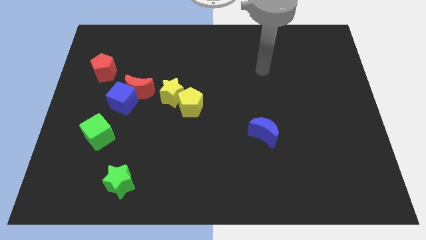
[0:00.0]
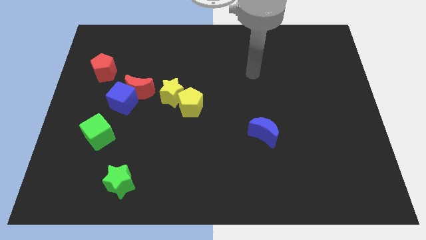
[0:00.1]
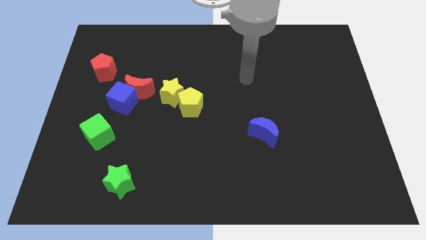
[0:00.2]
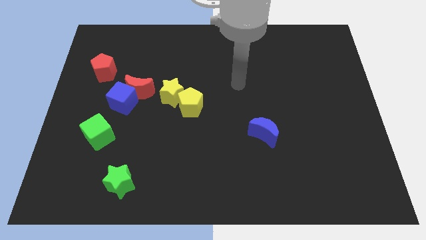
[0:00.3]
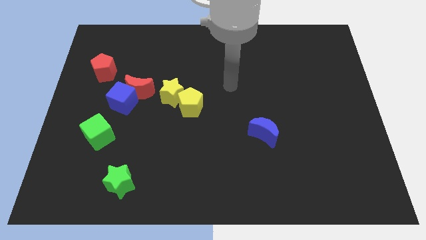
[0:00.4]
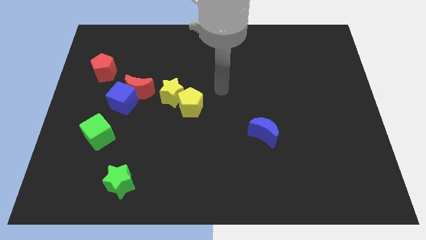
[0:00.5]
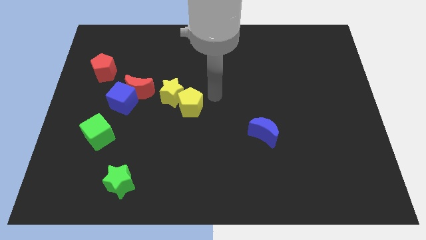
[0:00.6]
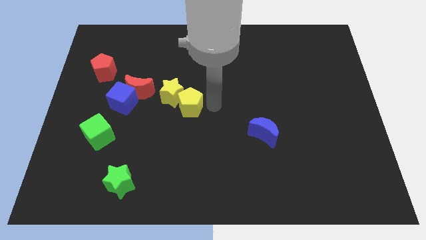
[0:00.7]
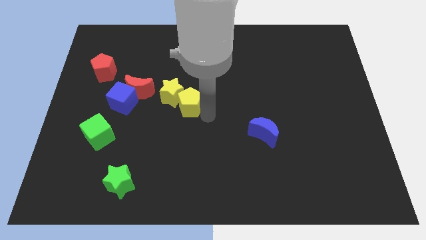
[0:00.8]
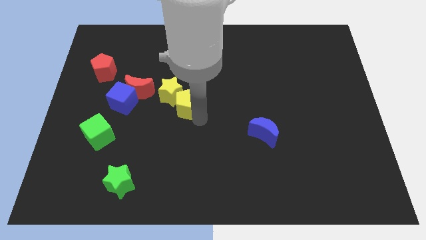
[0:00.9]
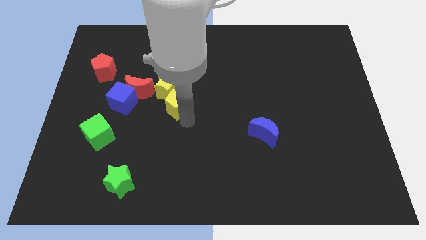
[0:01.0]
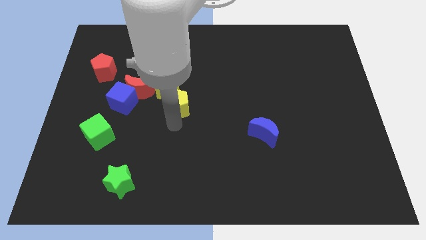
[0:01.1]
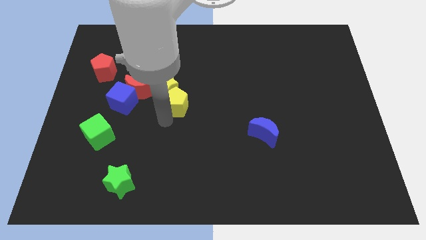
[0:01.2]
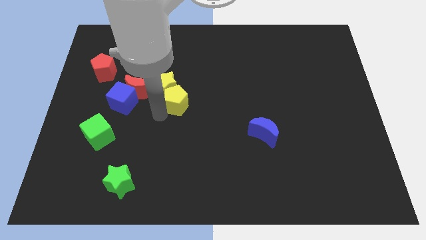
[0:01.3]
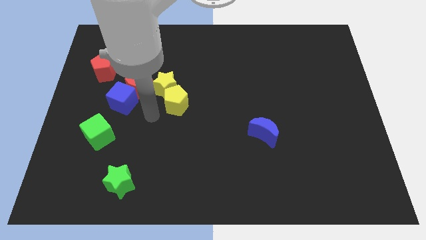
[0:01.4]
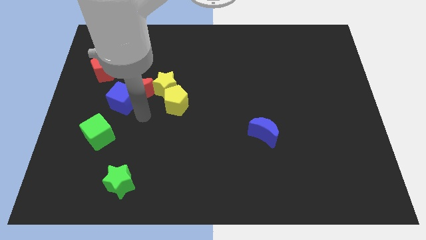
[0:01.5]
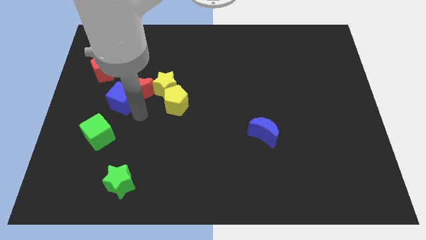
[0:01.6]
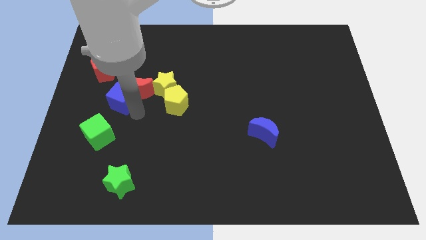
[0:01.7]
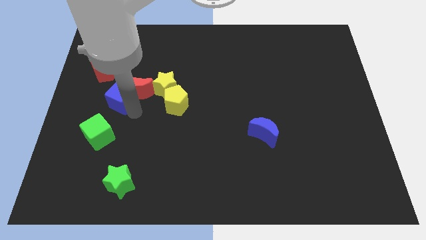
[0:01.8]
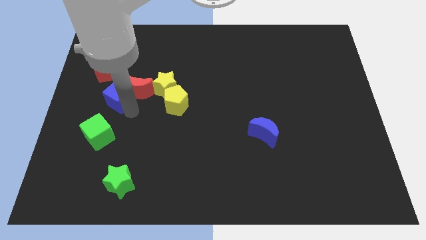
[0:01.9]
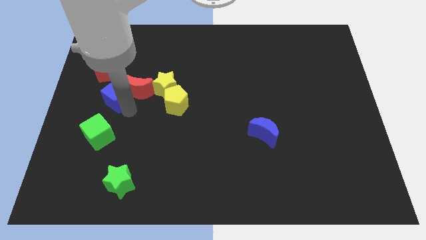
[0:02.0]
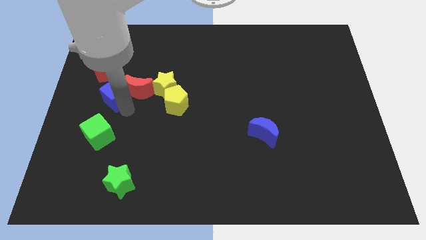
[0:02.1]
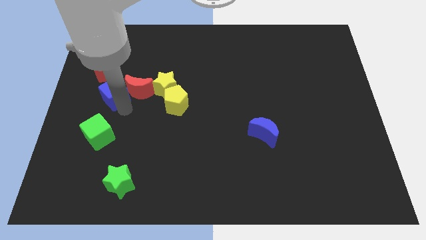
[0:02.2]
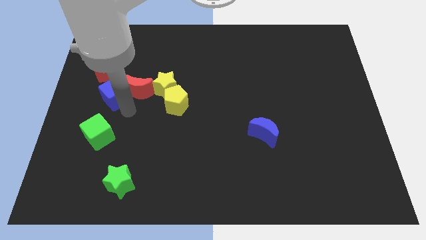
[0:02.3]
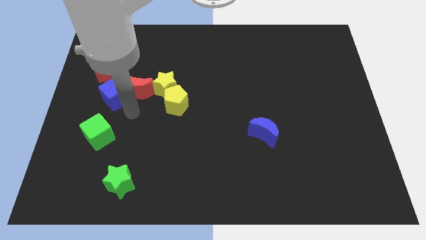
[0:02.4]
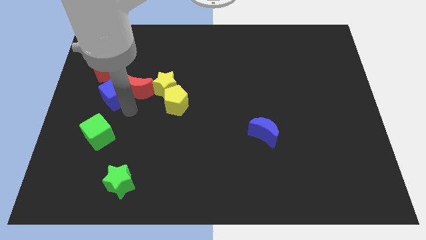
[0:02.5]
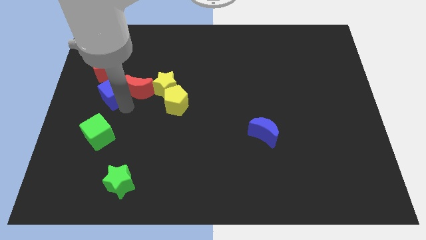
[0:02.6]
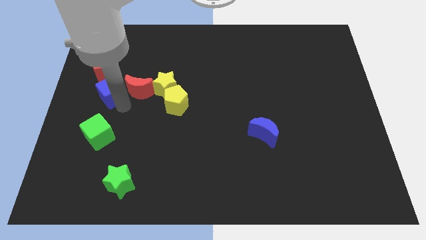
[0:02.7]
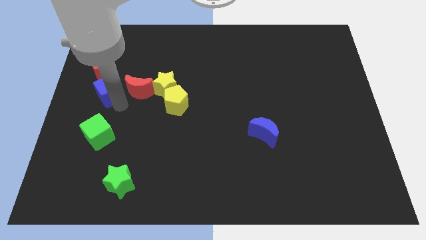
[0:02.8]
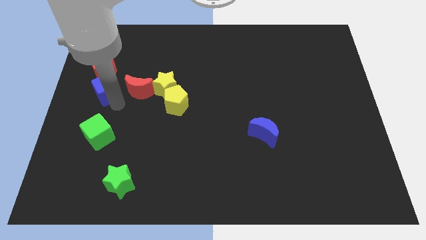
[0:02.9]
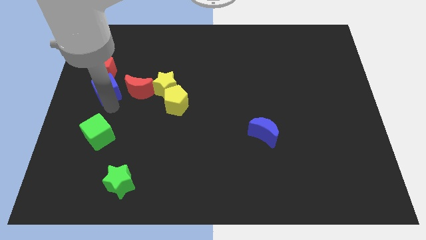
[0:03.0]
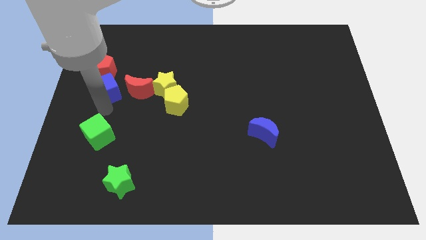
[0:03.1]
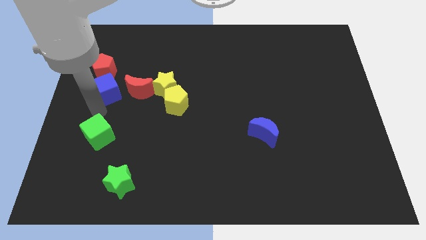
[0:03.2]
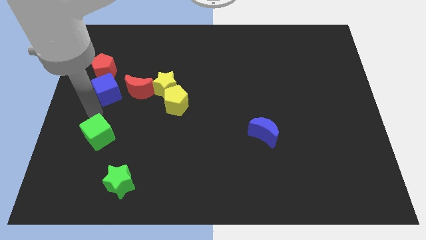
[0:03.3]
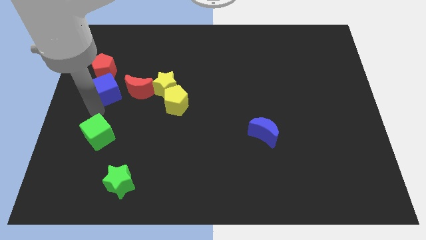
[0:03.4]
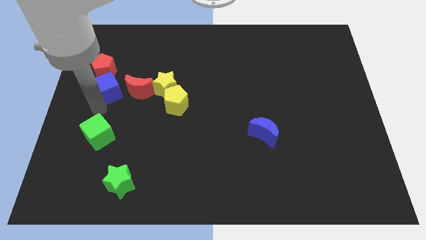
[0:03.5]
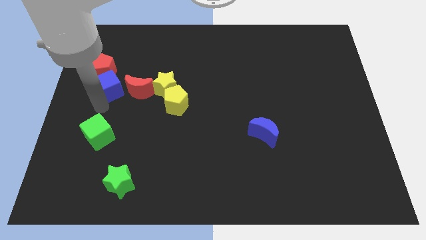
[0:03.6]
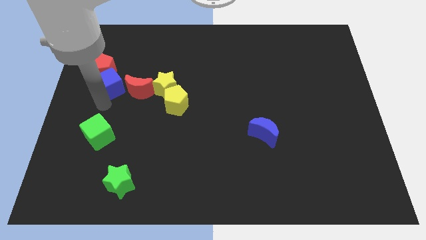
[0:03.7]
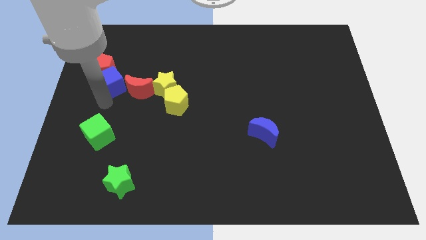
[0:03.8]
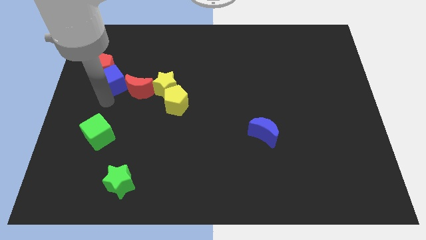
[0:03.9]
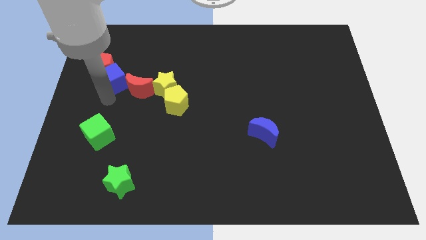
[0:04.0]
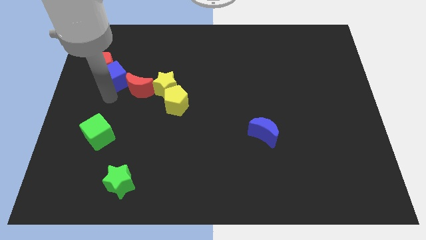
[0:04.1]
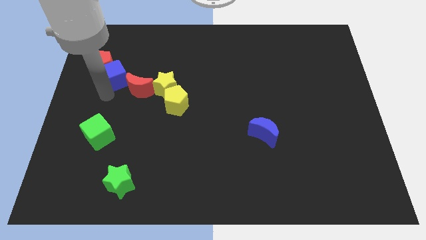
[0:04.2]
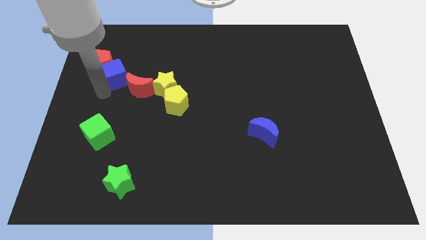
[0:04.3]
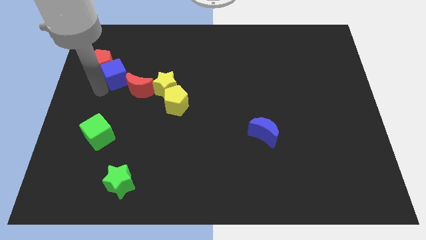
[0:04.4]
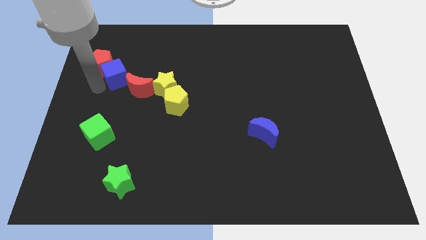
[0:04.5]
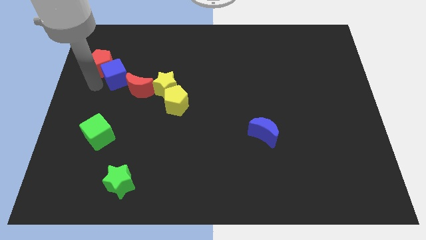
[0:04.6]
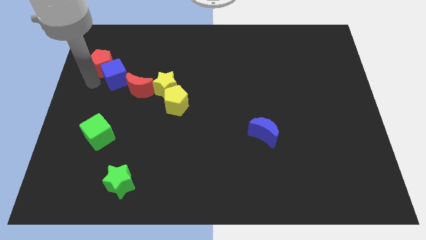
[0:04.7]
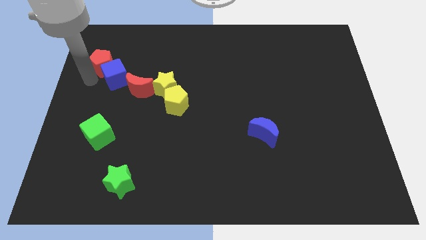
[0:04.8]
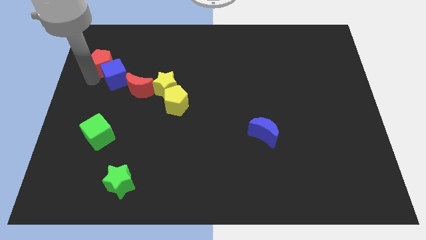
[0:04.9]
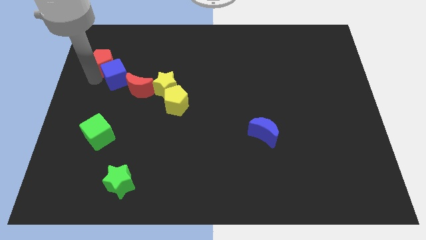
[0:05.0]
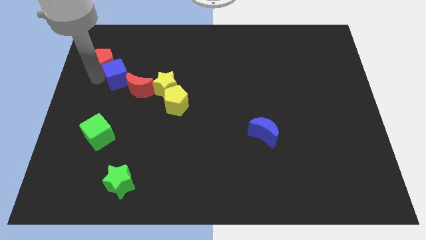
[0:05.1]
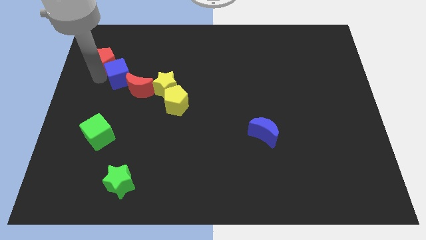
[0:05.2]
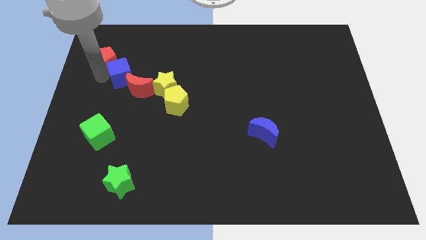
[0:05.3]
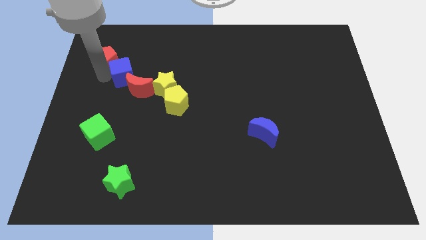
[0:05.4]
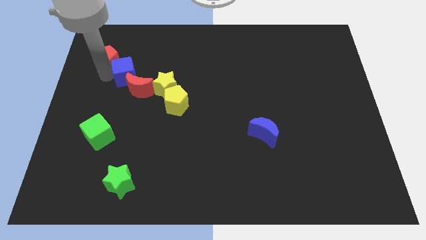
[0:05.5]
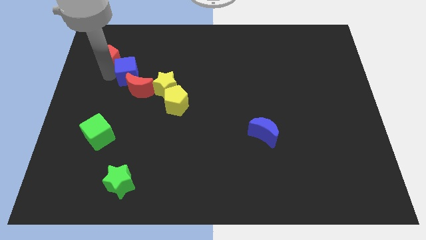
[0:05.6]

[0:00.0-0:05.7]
push the blue cube to the top left of the yellow star
